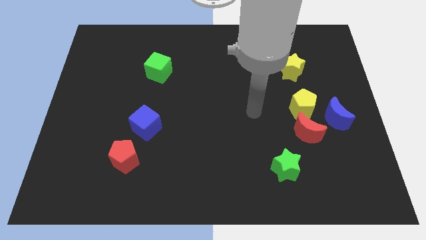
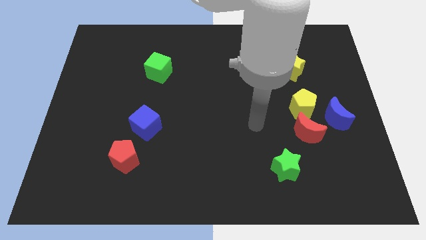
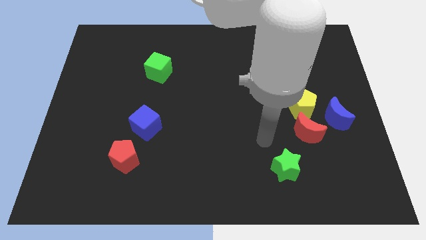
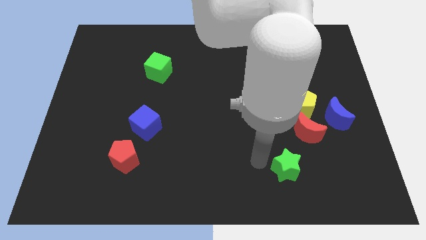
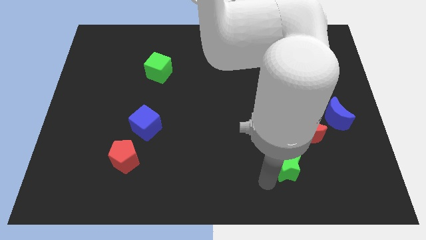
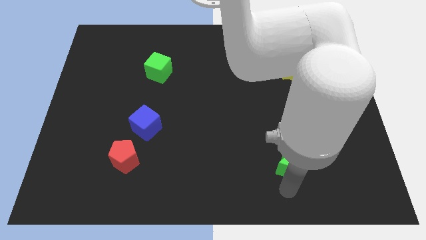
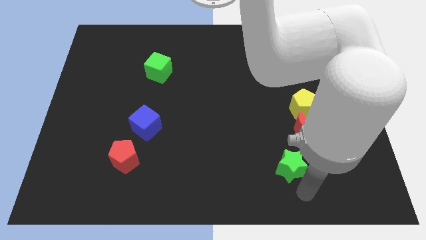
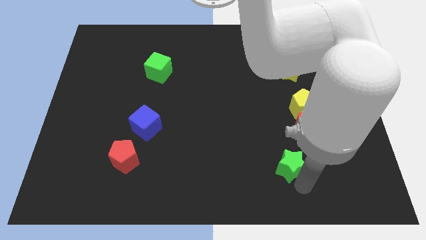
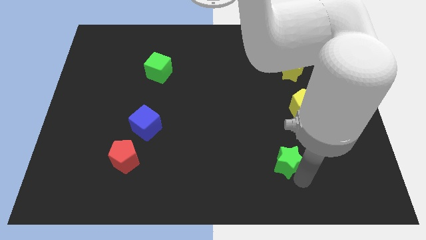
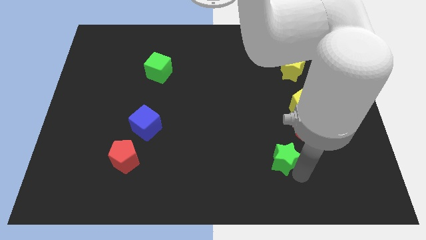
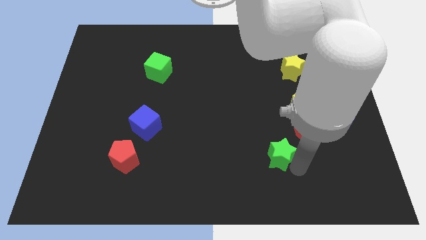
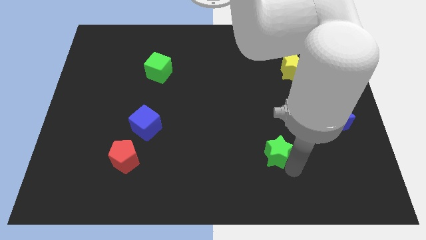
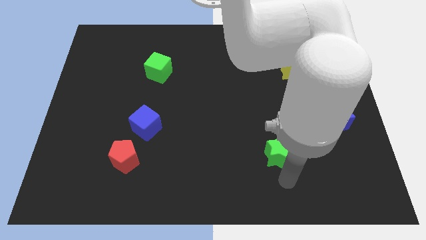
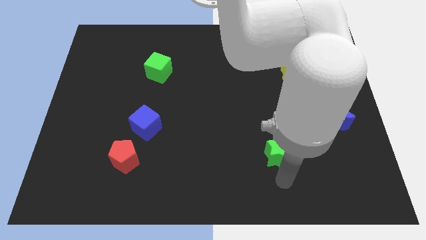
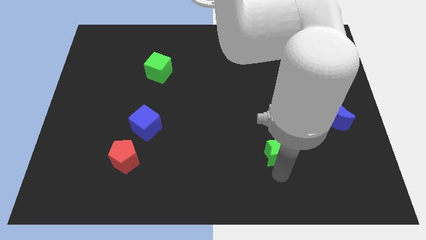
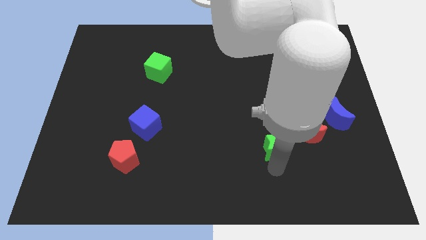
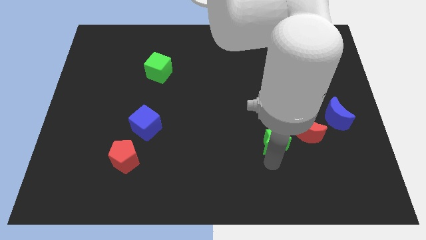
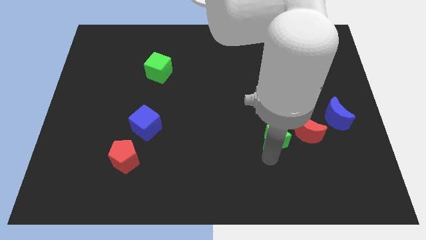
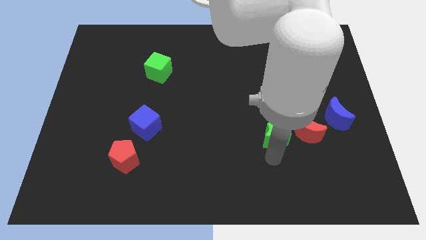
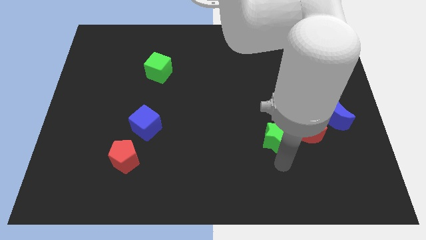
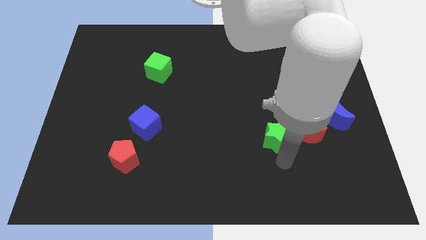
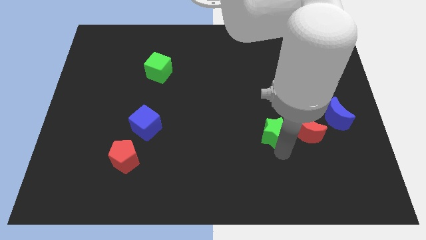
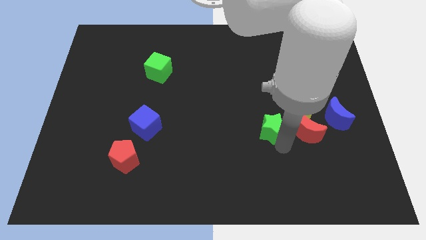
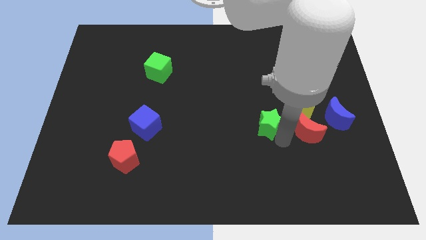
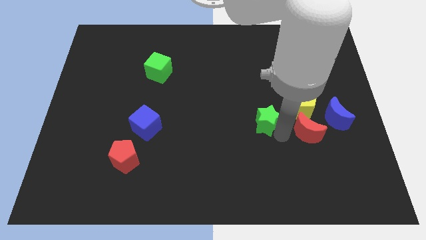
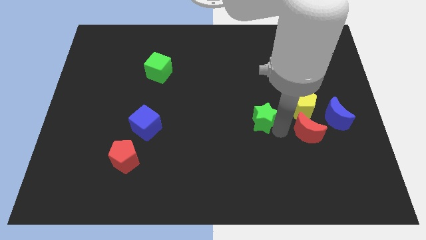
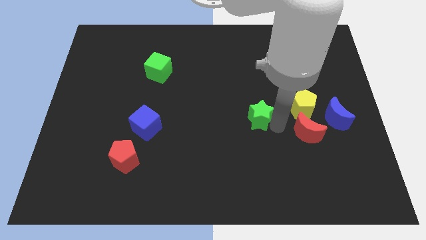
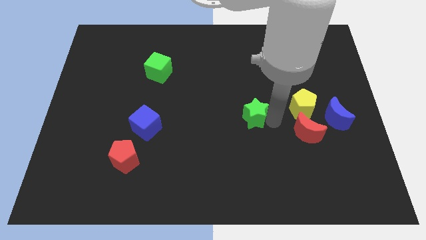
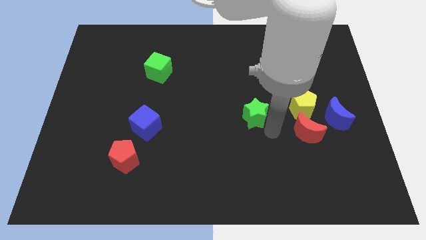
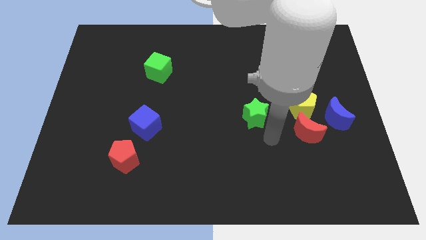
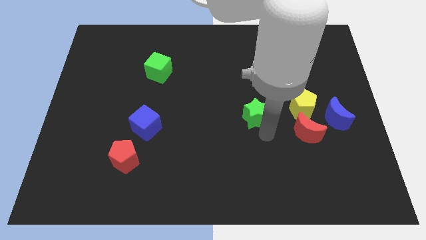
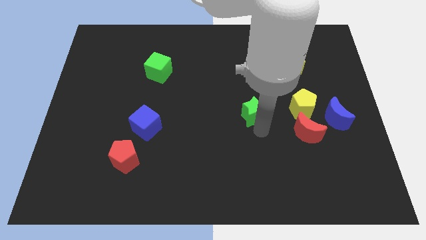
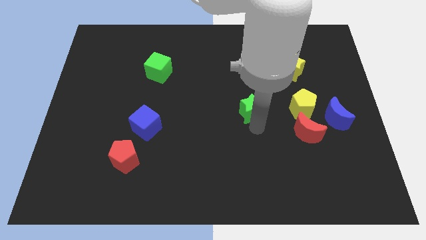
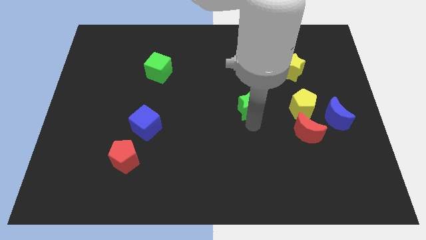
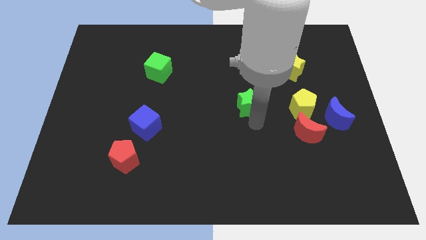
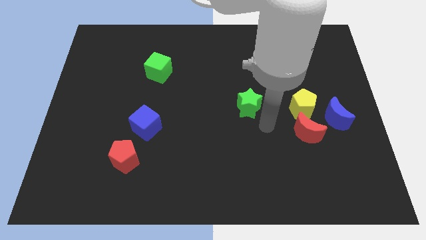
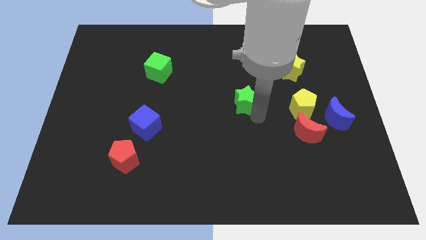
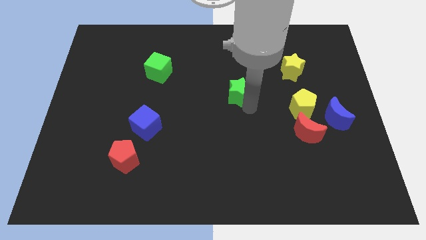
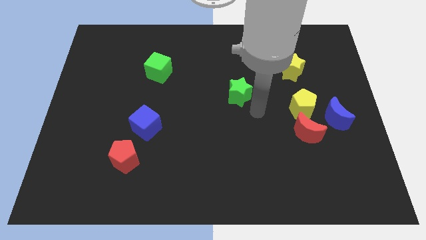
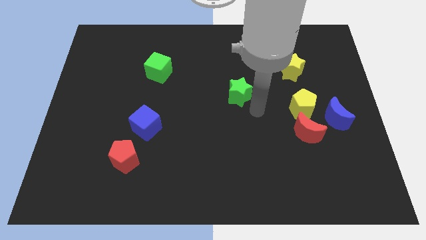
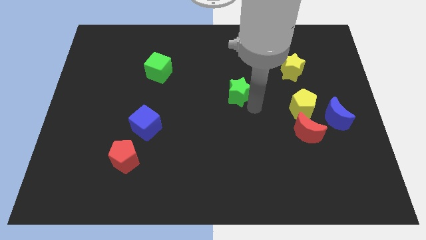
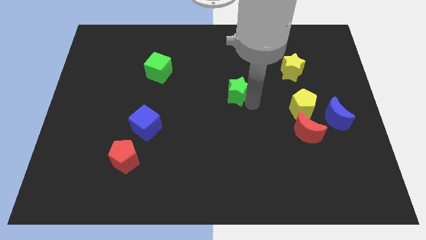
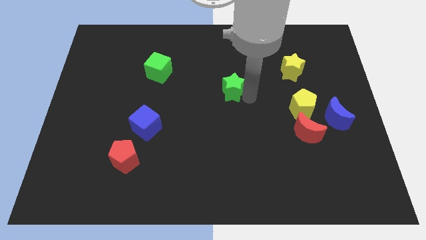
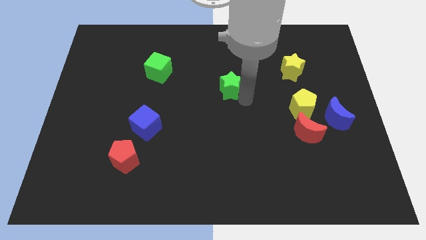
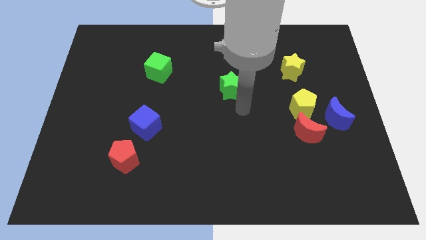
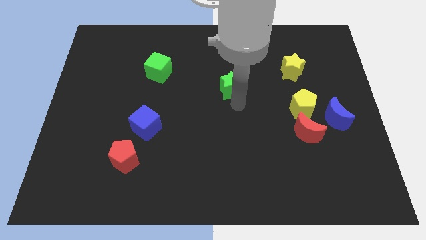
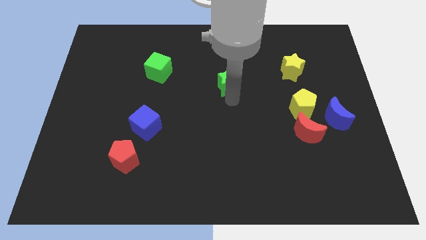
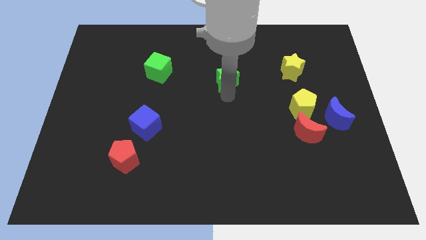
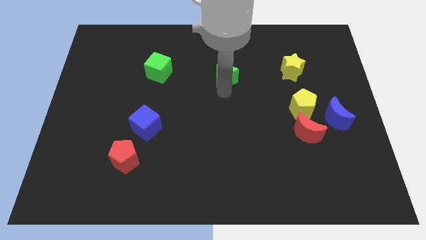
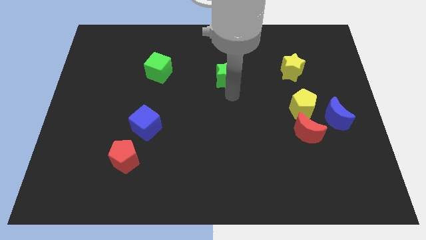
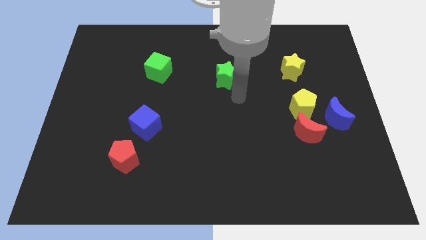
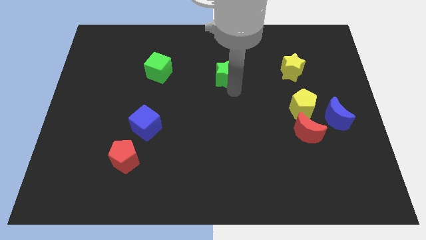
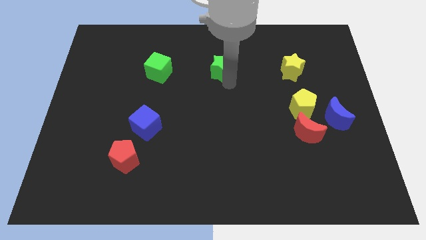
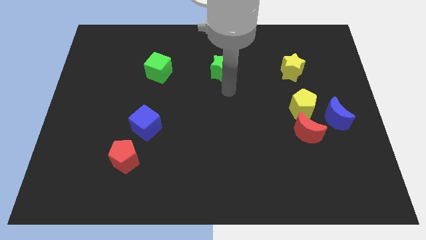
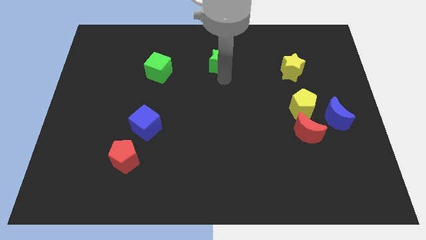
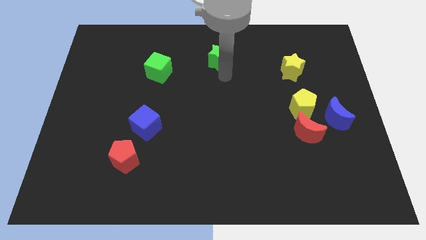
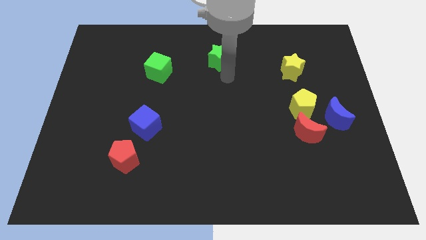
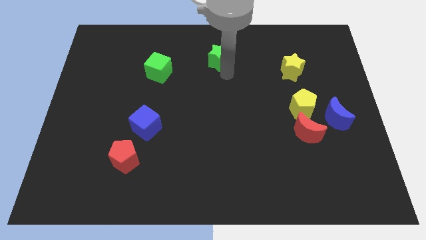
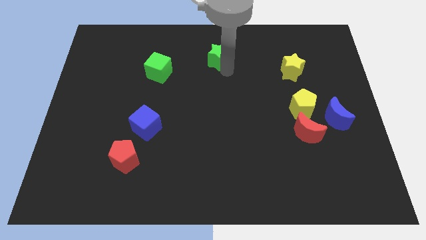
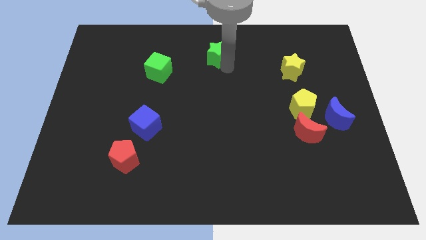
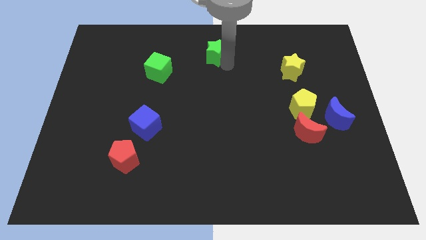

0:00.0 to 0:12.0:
push the green star to the towards your base

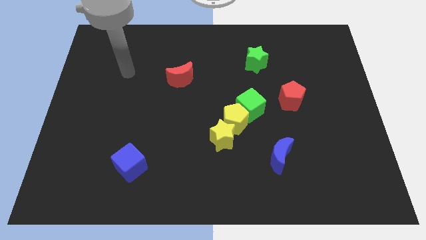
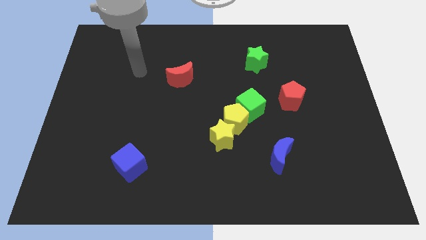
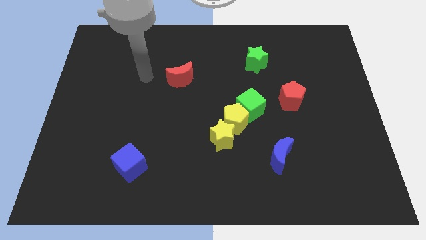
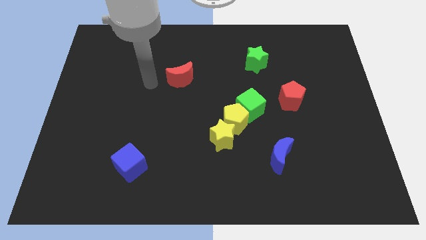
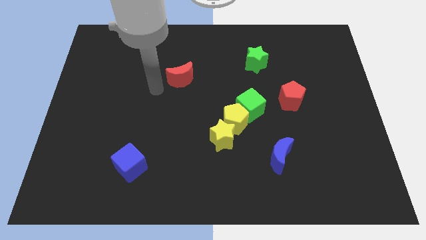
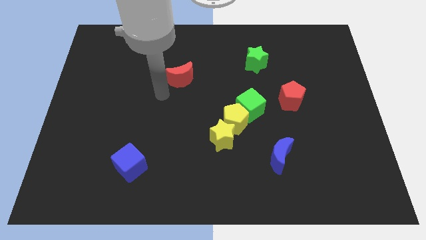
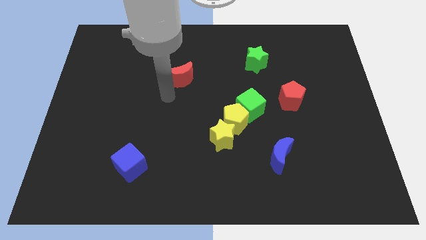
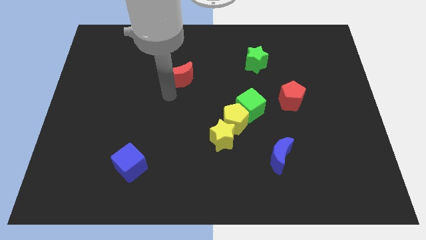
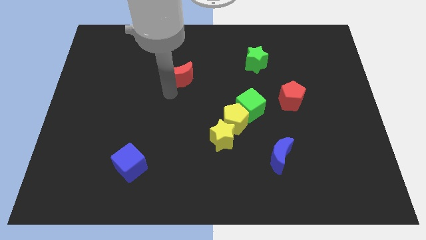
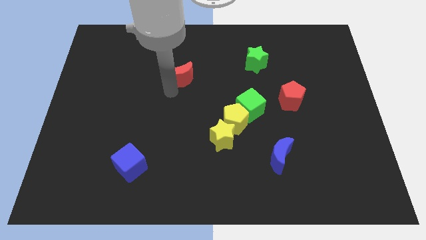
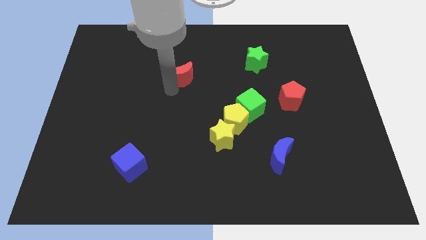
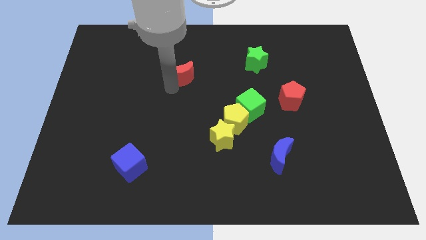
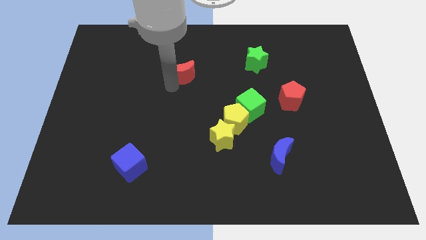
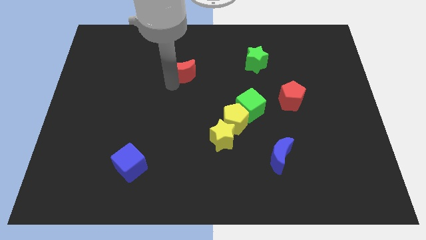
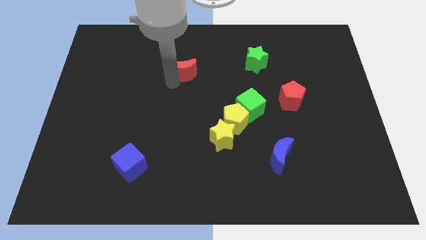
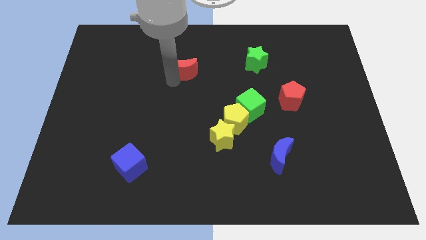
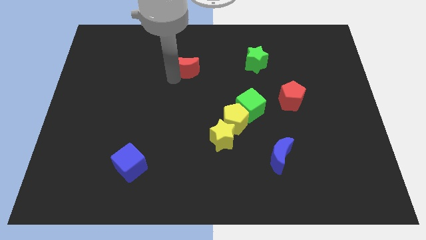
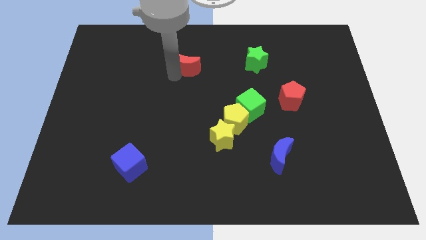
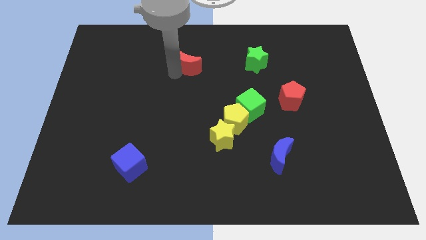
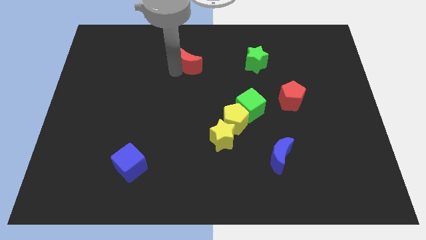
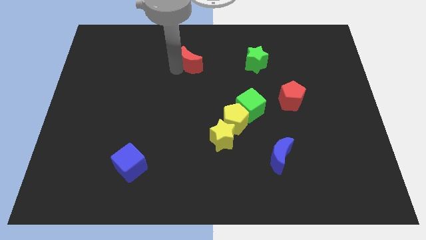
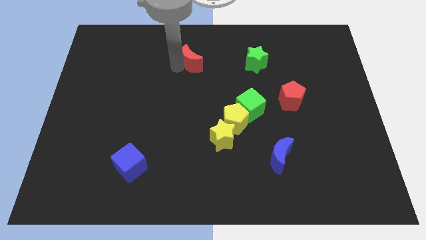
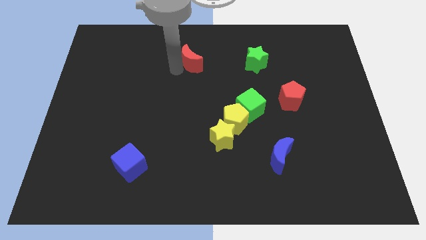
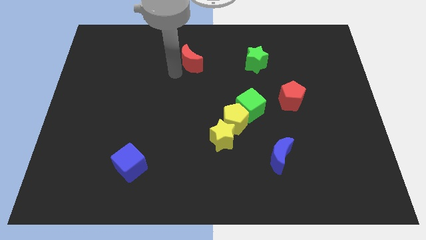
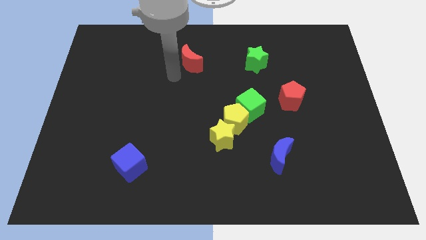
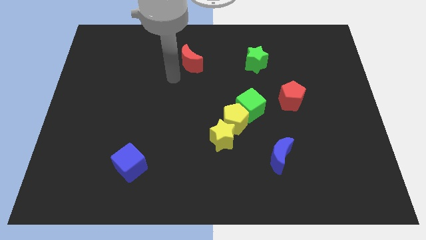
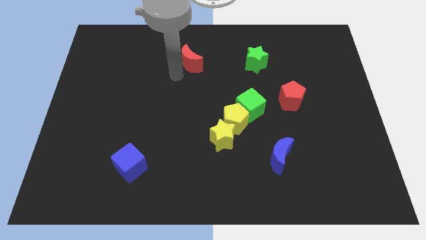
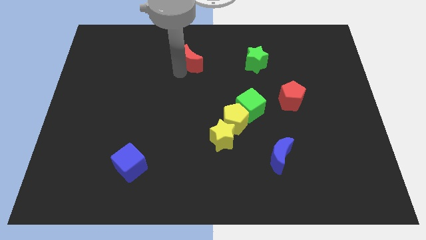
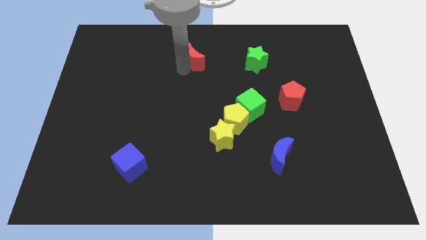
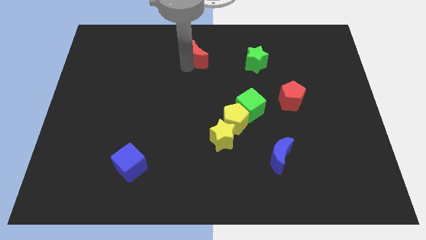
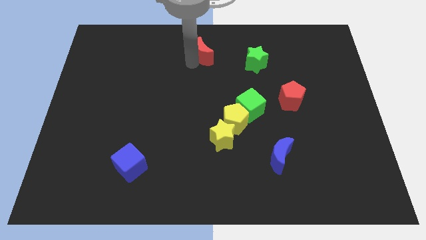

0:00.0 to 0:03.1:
push the red moon to the towards your base
